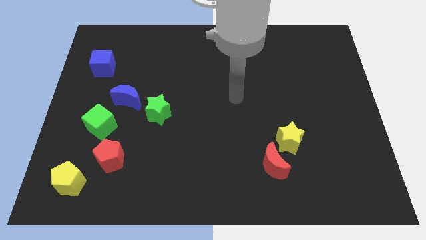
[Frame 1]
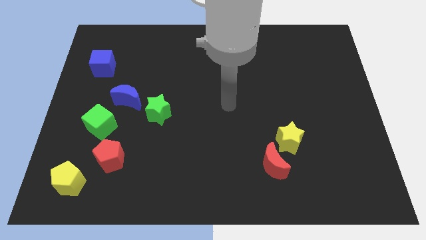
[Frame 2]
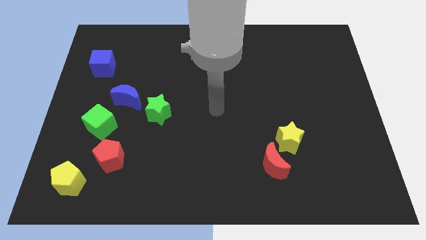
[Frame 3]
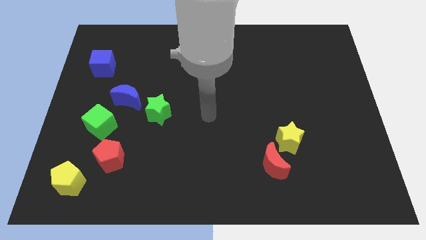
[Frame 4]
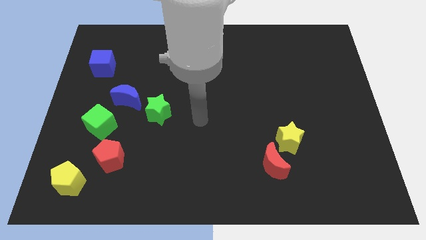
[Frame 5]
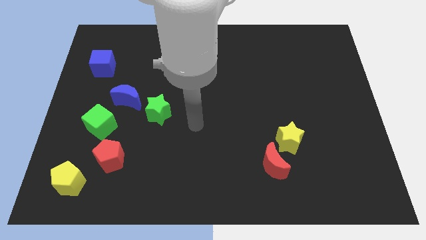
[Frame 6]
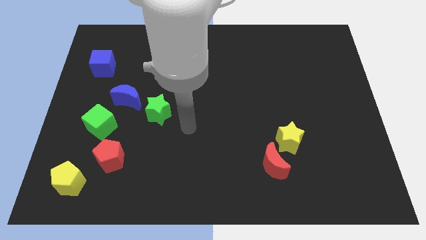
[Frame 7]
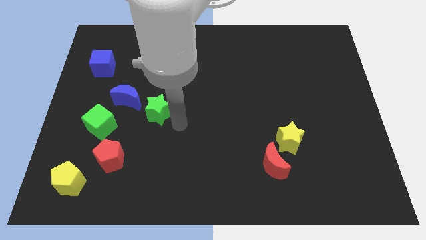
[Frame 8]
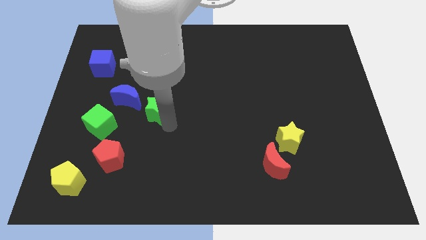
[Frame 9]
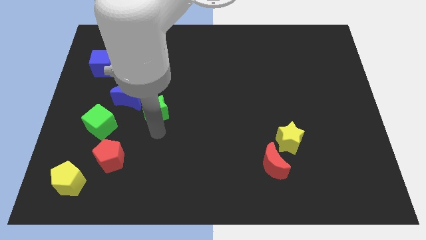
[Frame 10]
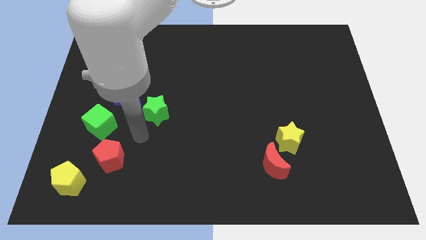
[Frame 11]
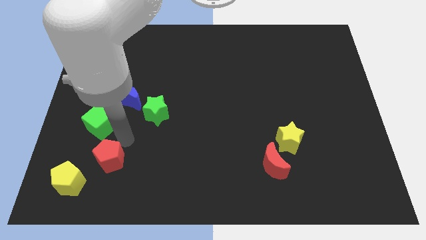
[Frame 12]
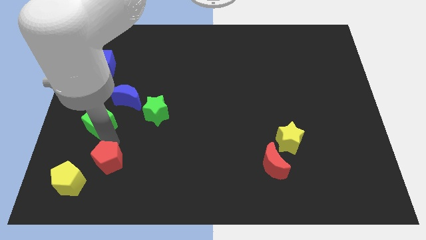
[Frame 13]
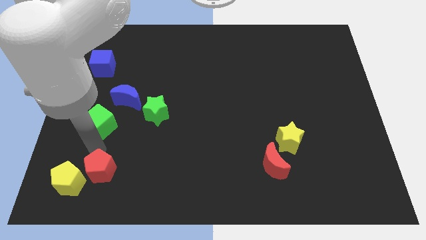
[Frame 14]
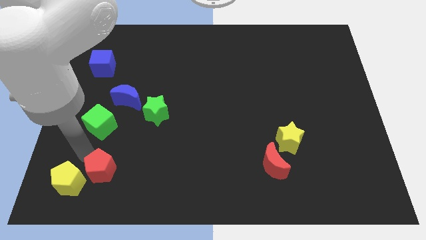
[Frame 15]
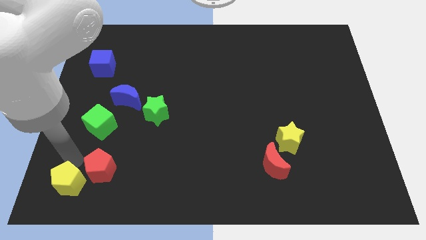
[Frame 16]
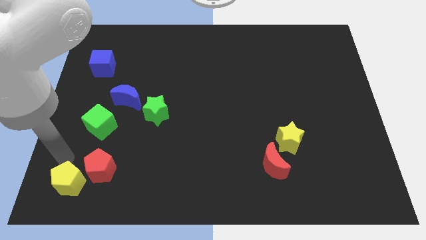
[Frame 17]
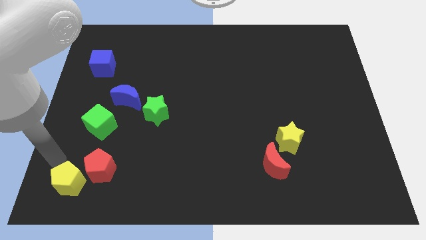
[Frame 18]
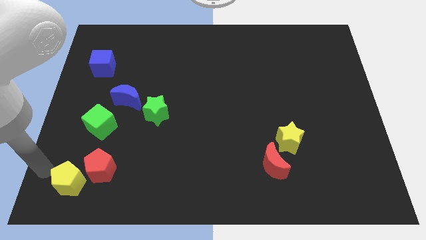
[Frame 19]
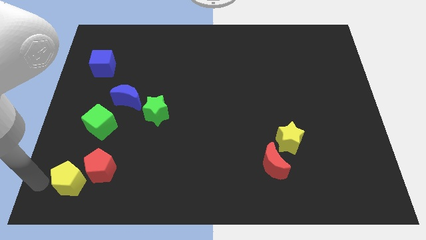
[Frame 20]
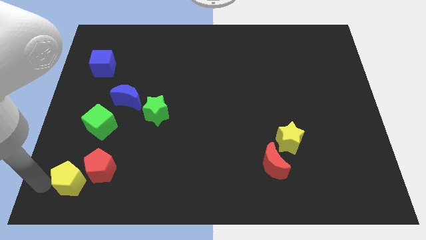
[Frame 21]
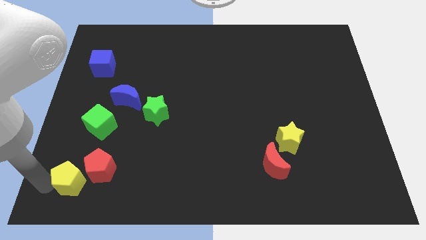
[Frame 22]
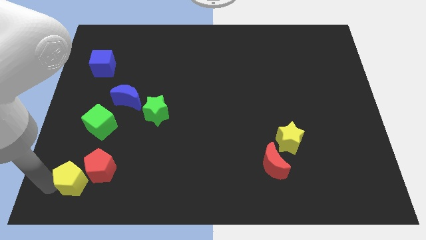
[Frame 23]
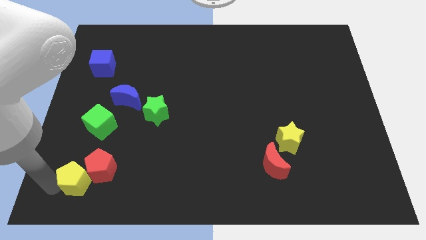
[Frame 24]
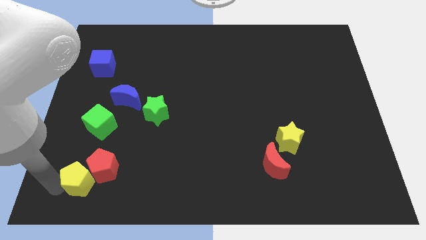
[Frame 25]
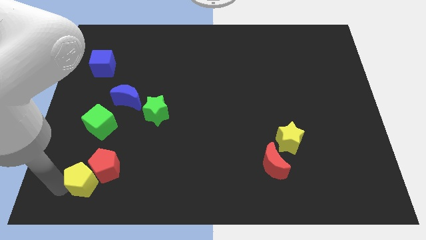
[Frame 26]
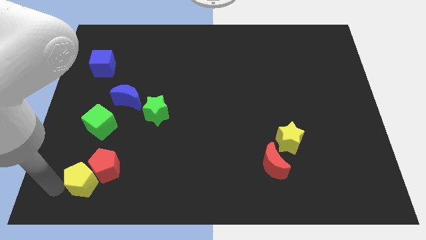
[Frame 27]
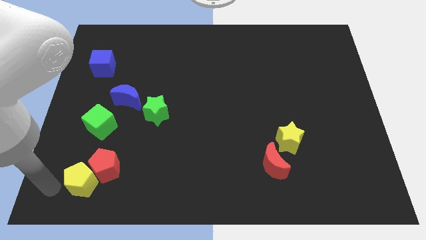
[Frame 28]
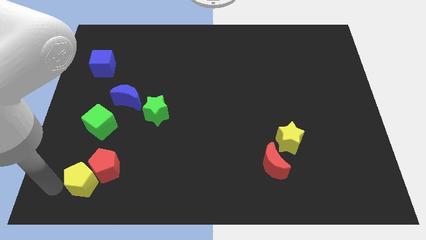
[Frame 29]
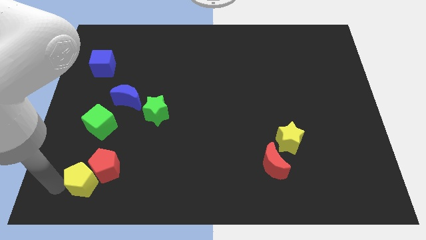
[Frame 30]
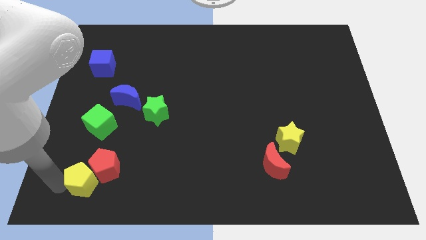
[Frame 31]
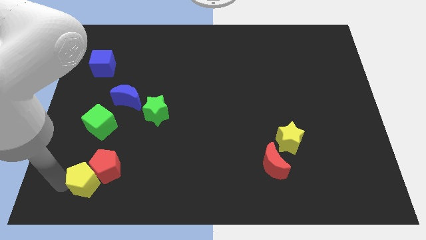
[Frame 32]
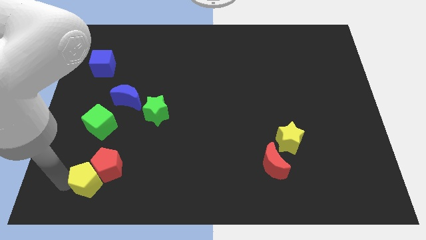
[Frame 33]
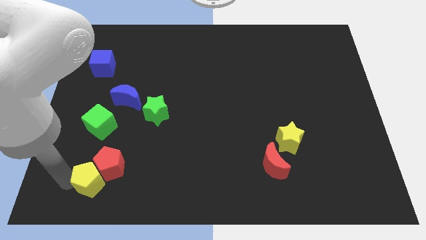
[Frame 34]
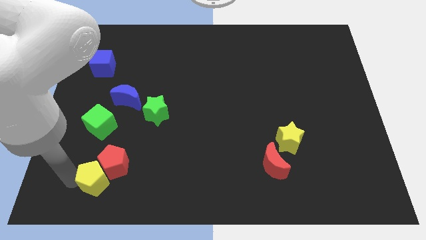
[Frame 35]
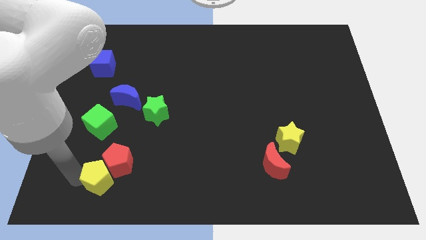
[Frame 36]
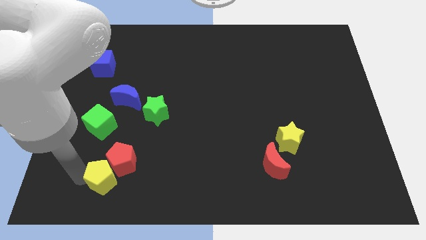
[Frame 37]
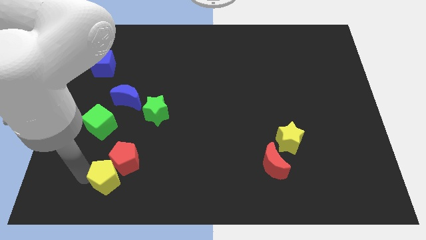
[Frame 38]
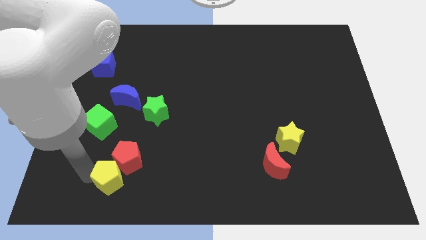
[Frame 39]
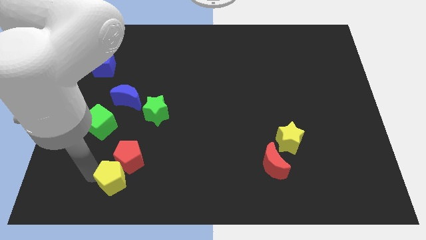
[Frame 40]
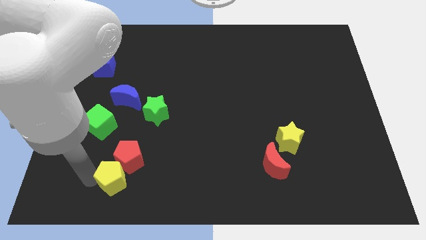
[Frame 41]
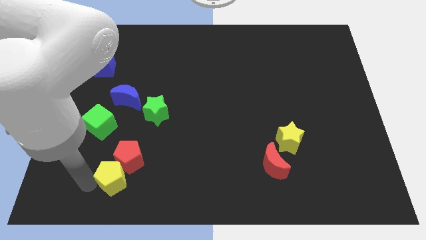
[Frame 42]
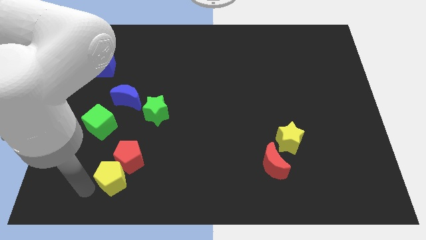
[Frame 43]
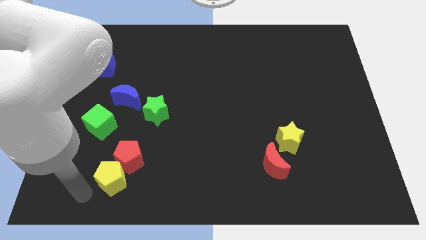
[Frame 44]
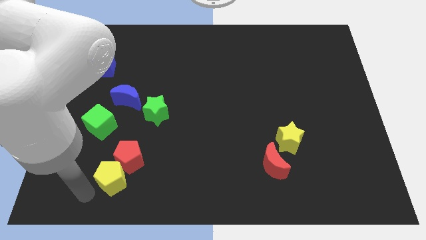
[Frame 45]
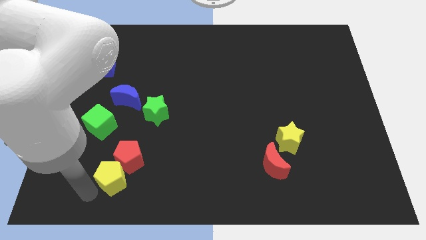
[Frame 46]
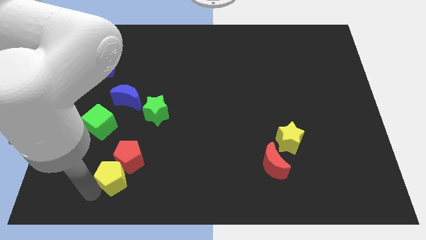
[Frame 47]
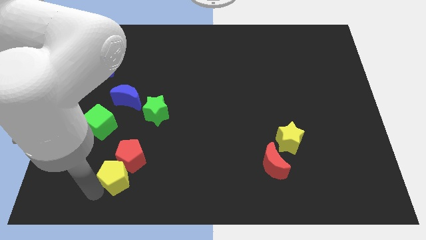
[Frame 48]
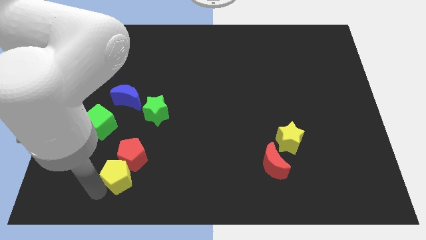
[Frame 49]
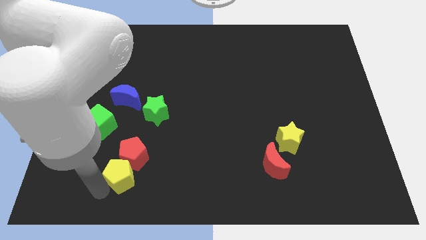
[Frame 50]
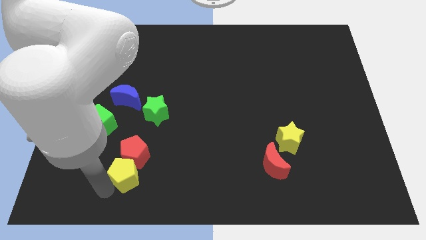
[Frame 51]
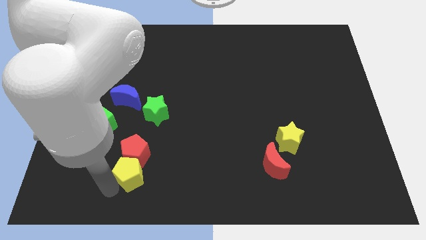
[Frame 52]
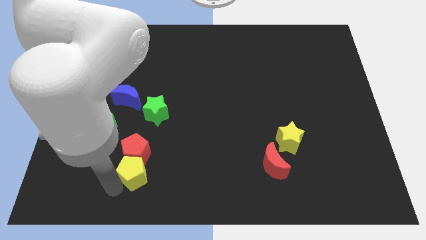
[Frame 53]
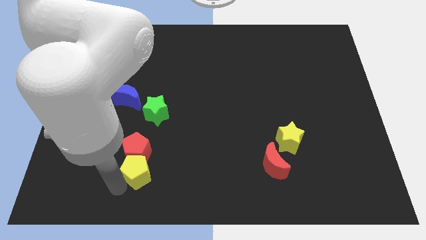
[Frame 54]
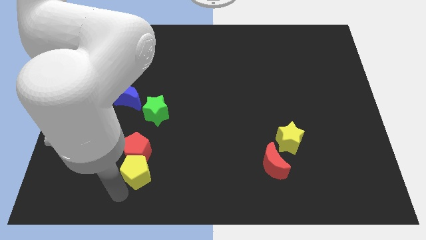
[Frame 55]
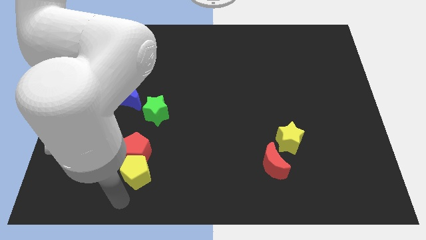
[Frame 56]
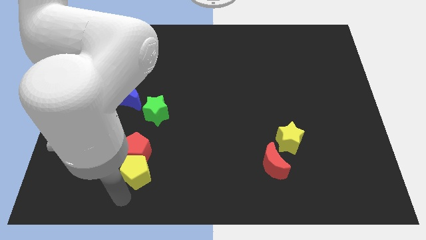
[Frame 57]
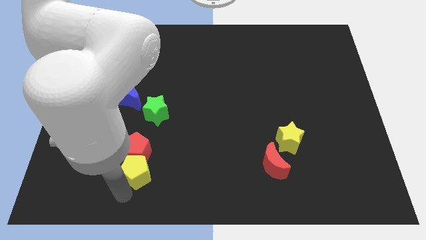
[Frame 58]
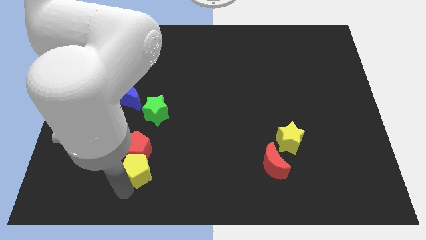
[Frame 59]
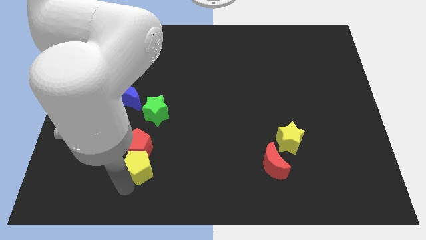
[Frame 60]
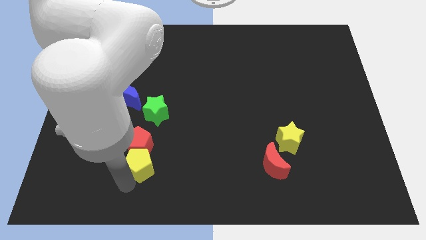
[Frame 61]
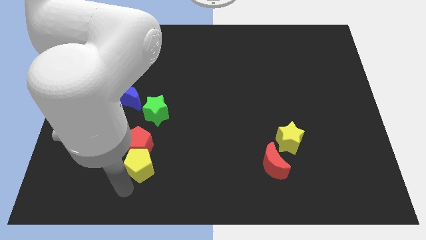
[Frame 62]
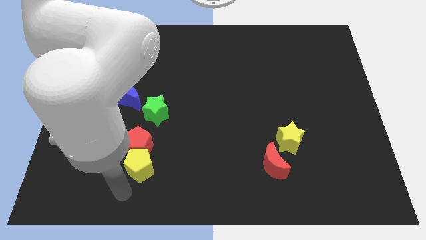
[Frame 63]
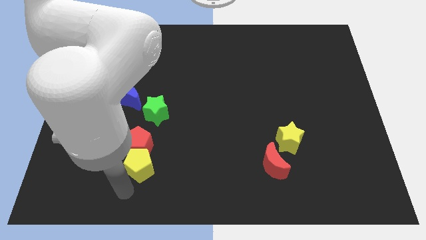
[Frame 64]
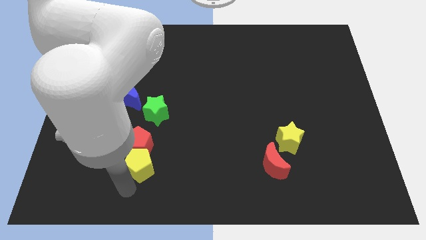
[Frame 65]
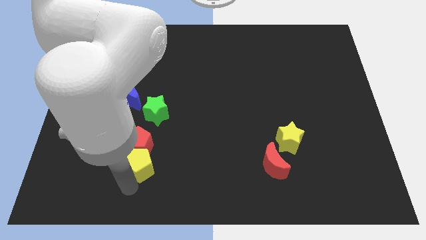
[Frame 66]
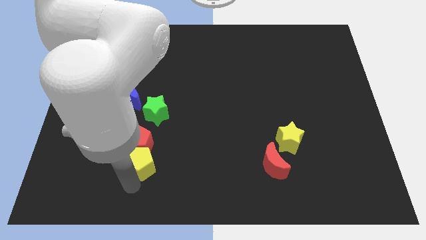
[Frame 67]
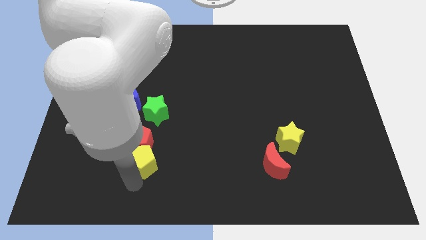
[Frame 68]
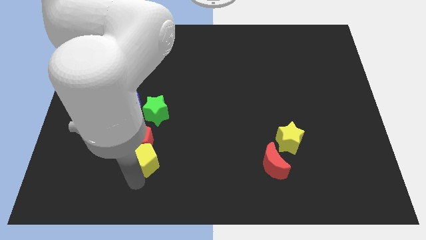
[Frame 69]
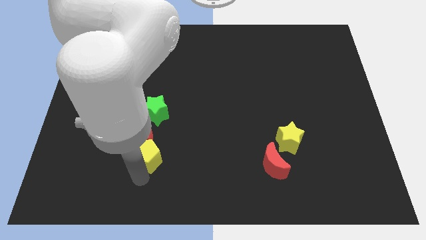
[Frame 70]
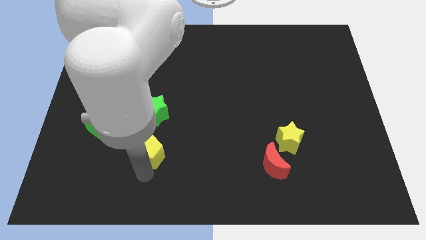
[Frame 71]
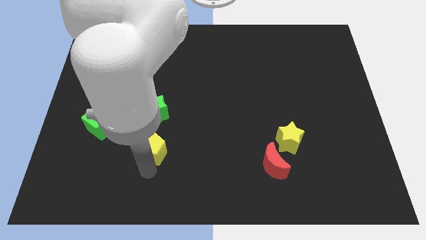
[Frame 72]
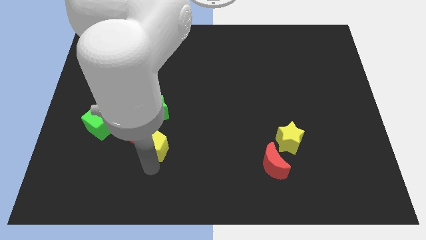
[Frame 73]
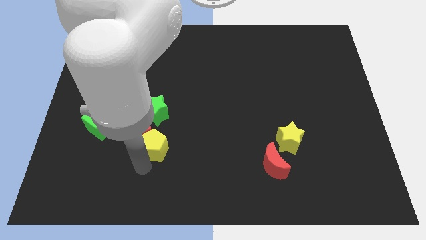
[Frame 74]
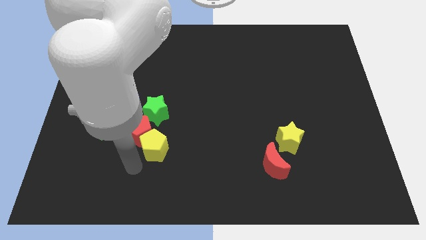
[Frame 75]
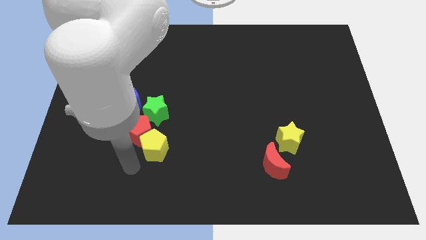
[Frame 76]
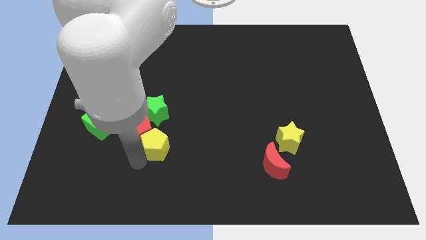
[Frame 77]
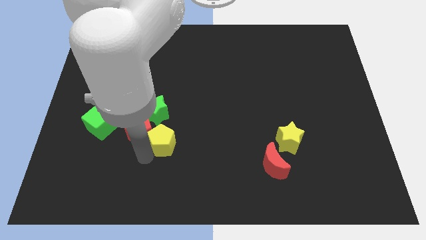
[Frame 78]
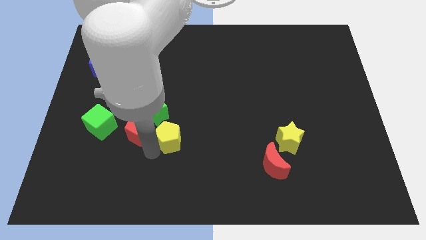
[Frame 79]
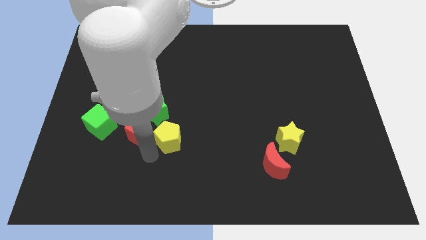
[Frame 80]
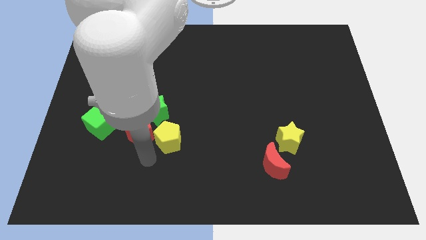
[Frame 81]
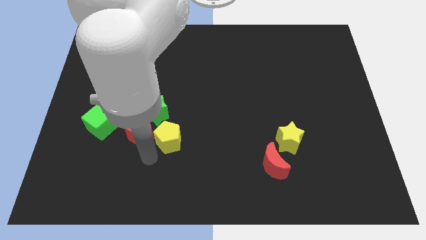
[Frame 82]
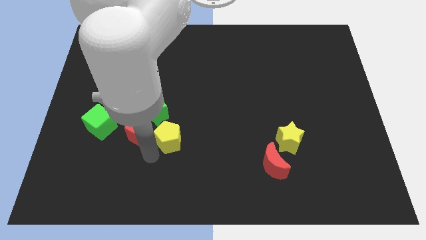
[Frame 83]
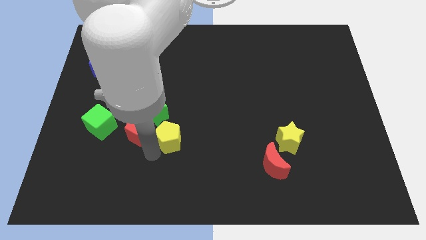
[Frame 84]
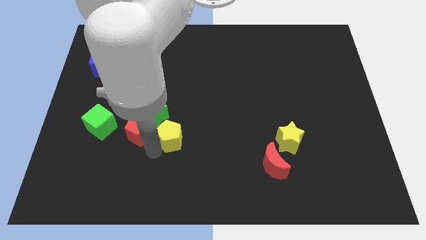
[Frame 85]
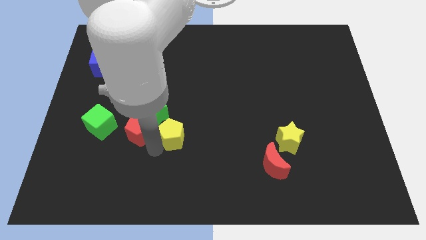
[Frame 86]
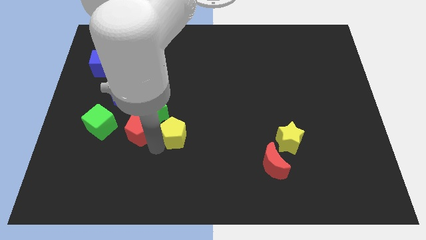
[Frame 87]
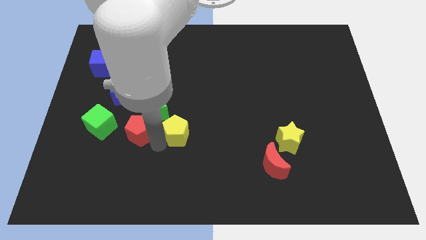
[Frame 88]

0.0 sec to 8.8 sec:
move the yellow pentagon to the center
